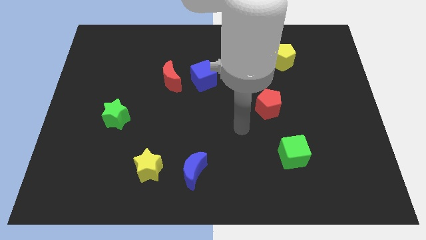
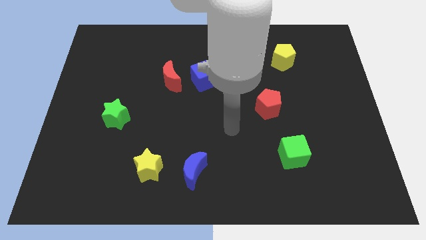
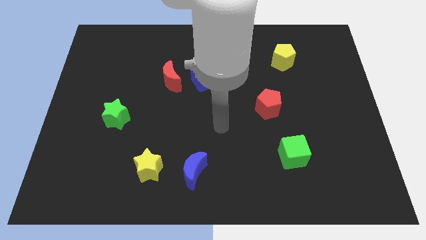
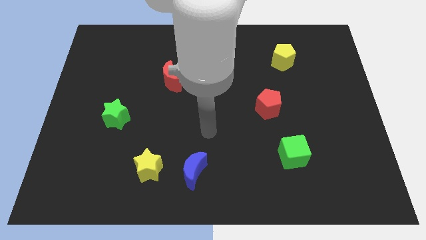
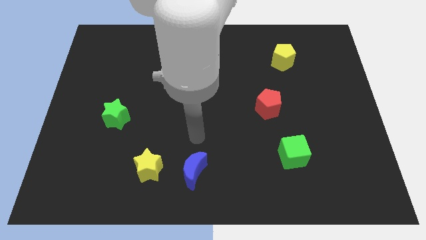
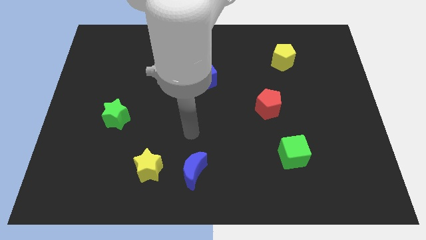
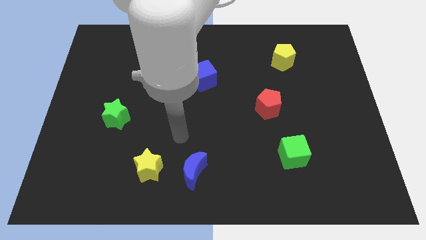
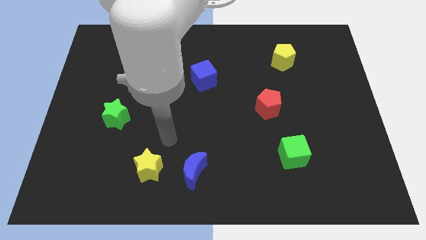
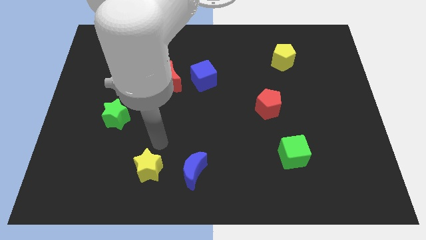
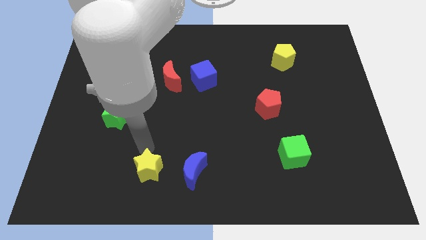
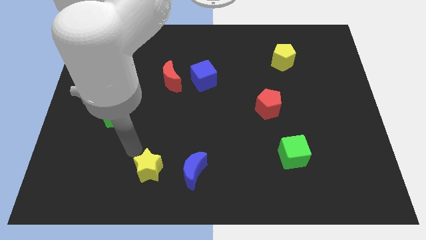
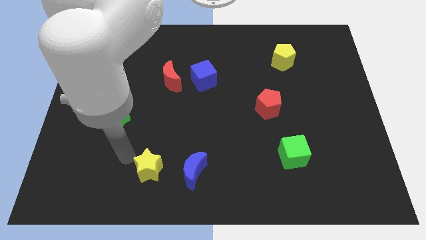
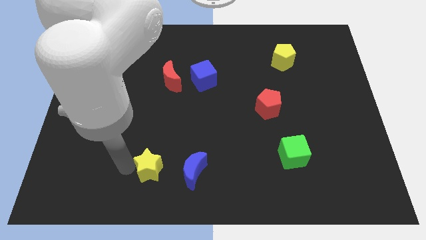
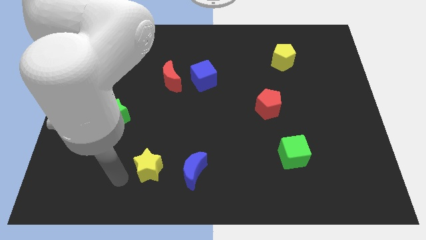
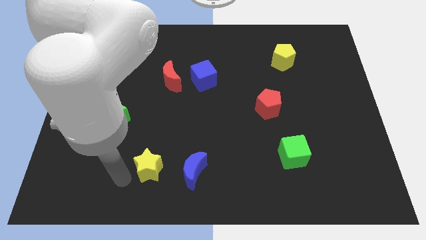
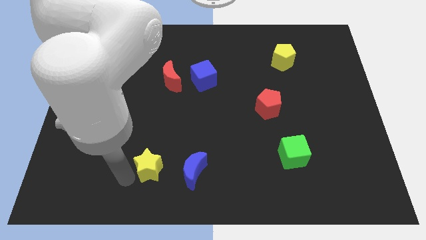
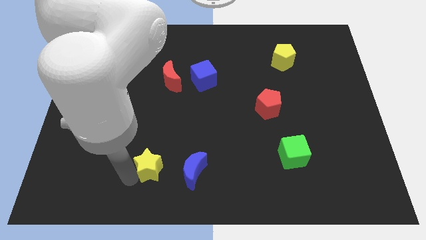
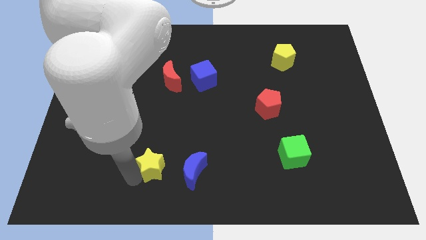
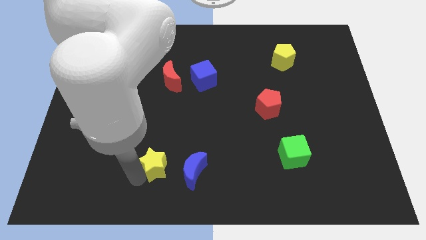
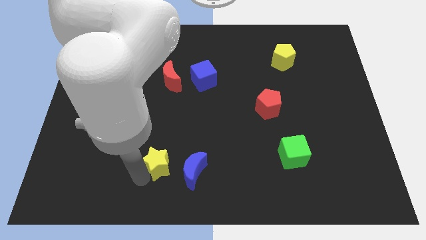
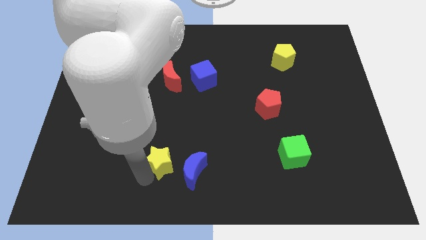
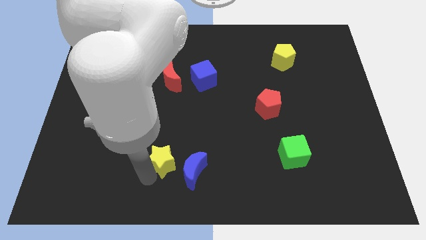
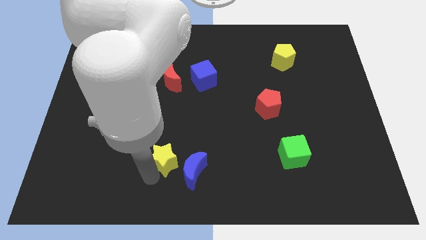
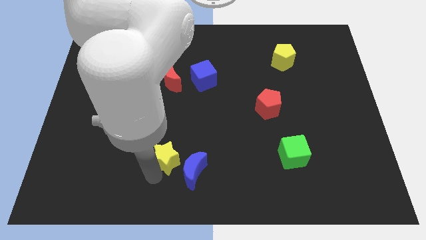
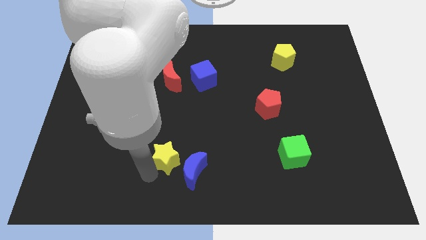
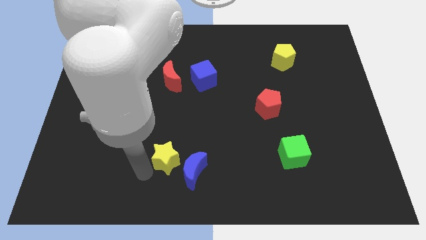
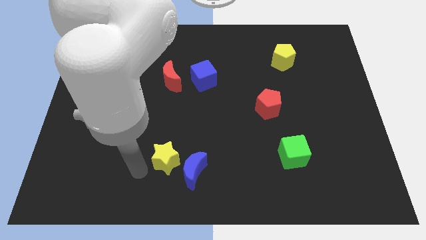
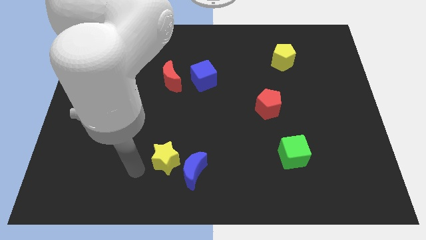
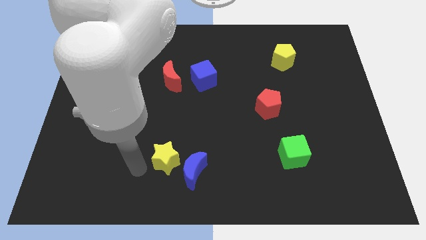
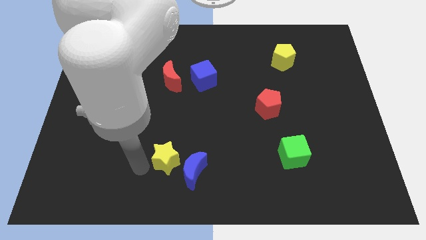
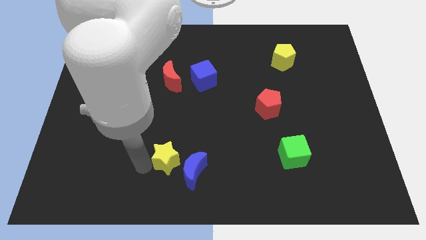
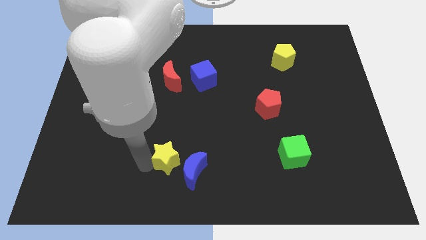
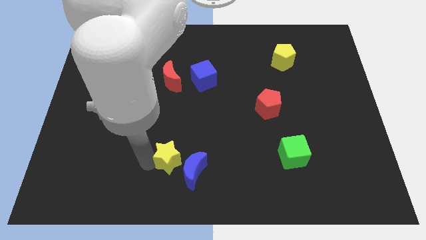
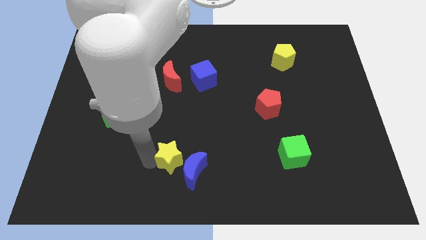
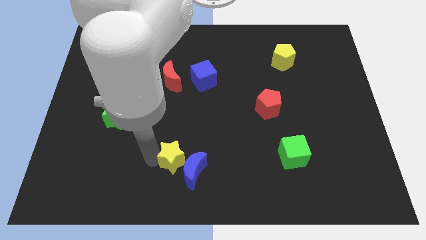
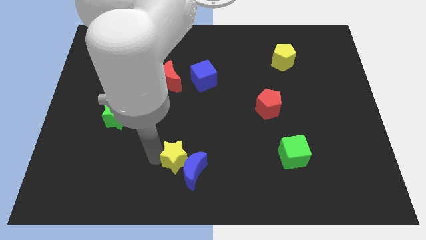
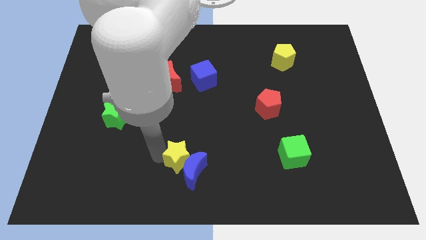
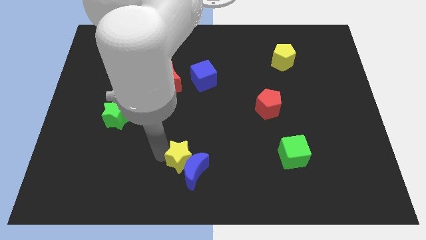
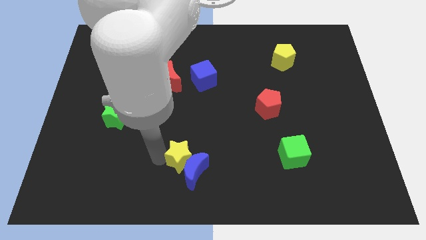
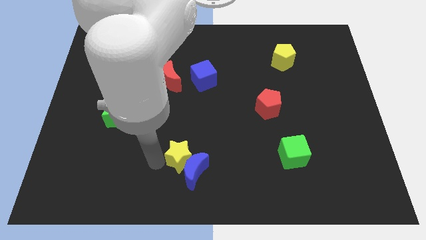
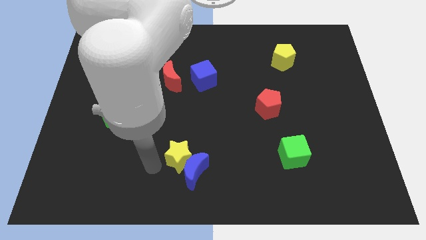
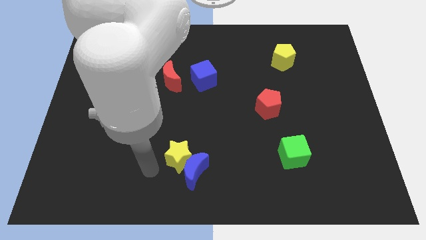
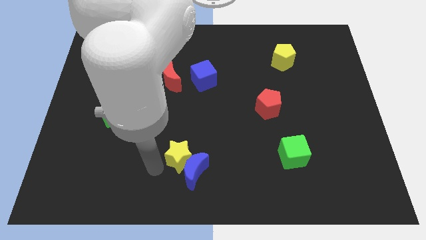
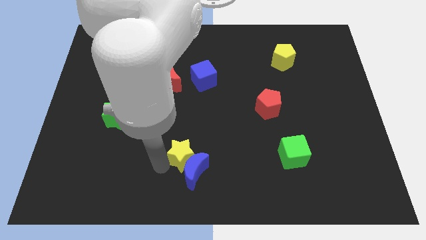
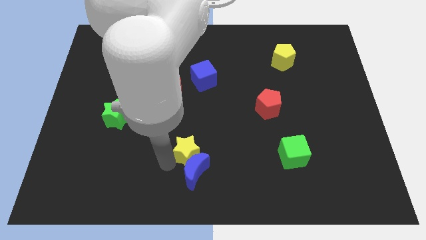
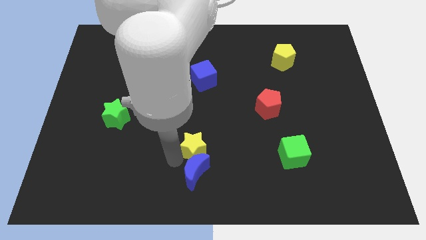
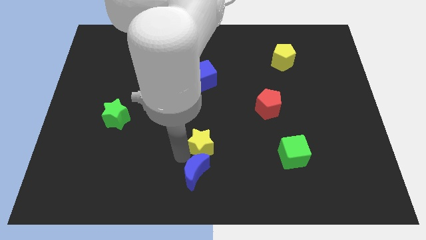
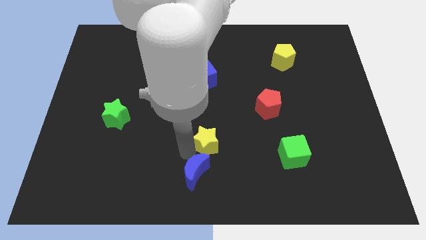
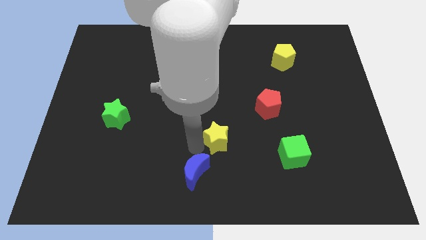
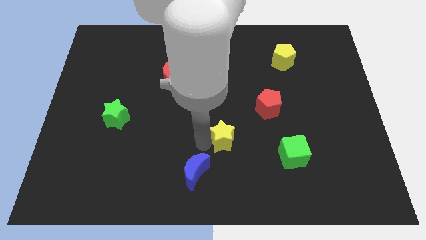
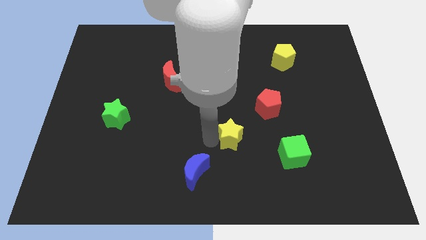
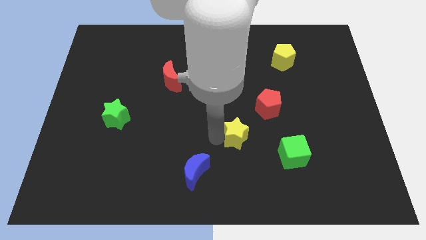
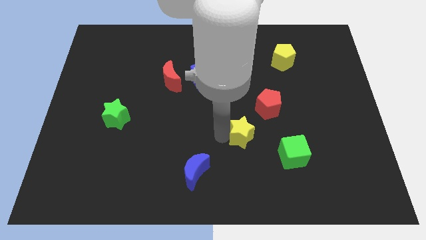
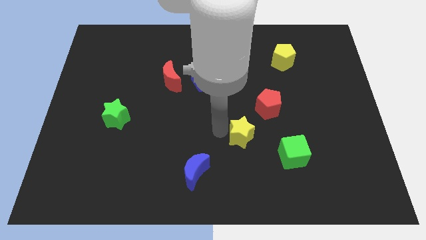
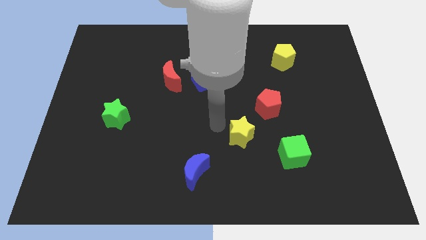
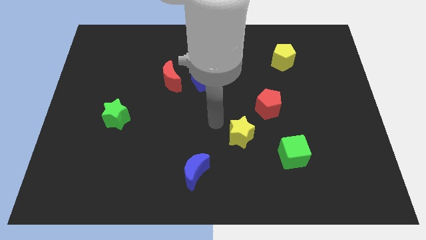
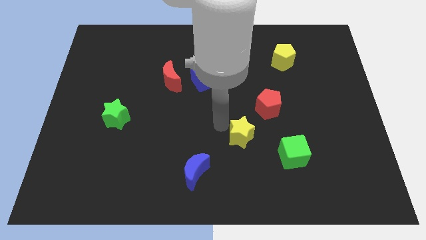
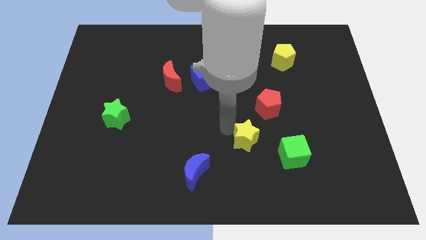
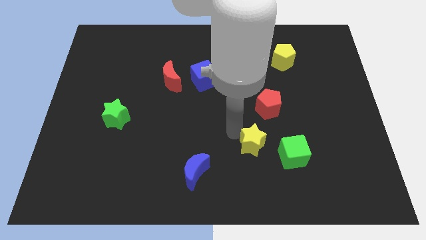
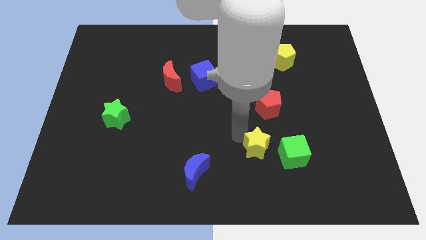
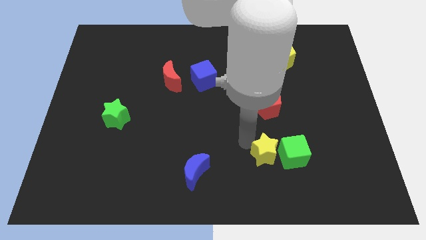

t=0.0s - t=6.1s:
slide the yellow star towards the green cube

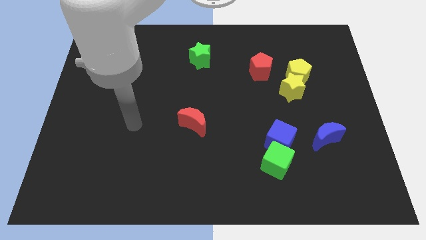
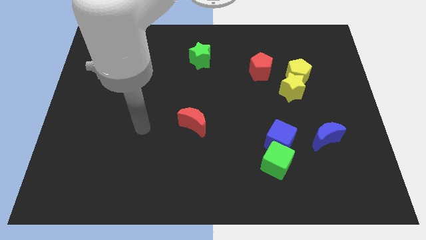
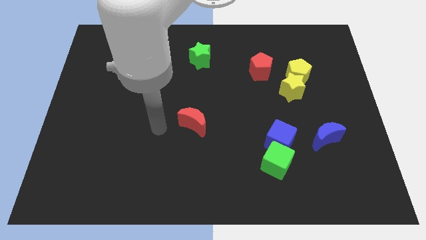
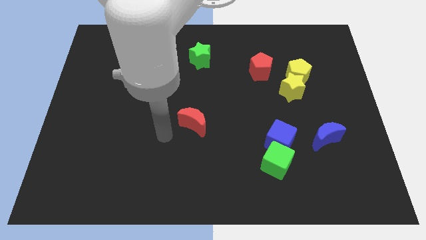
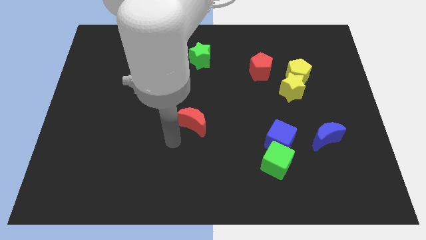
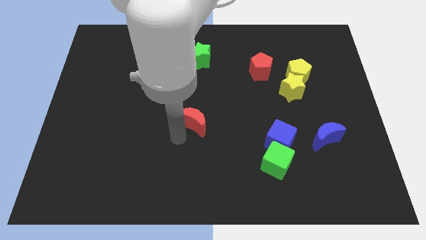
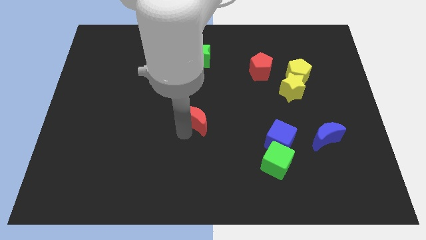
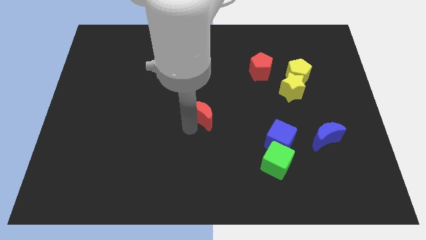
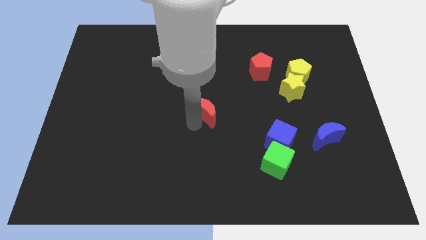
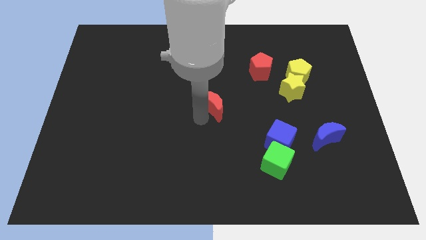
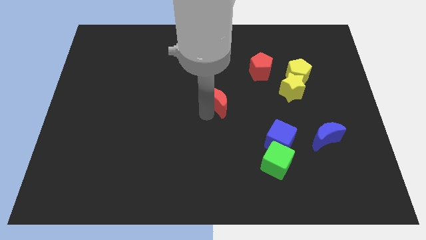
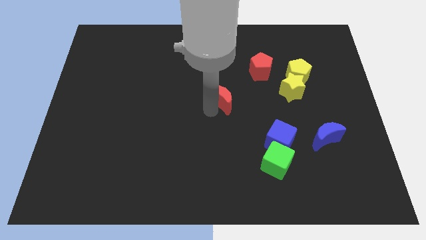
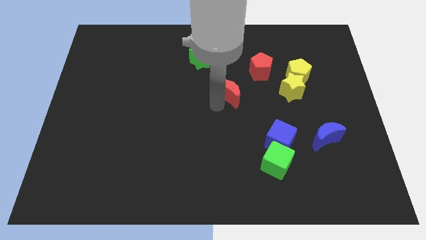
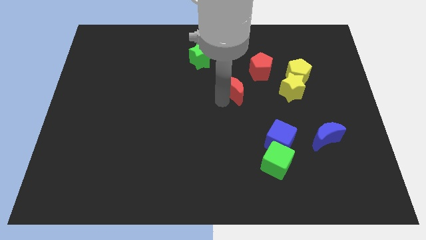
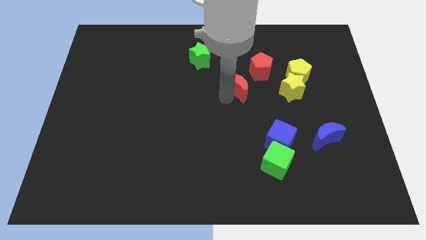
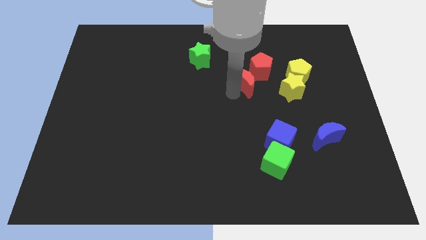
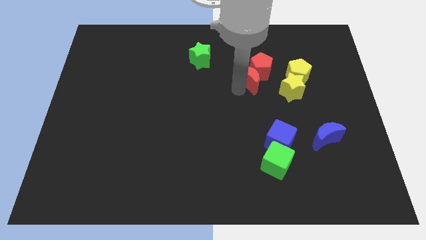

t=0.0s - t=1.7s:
move the red moon close to the red pentagon
